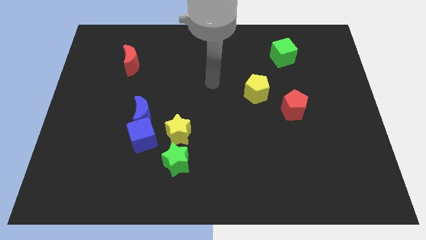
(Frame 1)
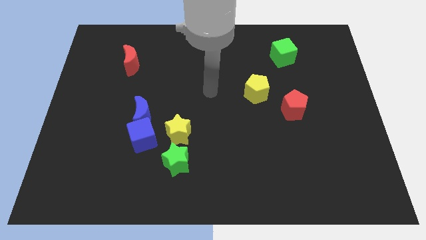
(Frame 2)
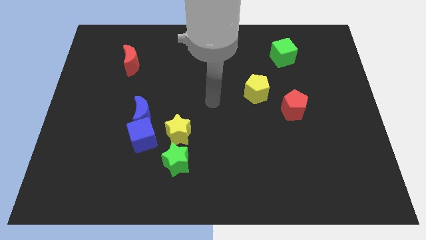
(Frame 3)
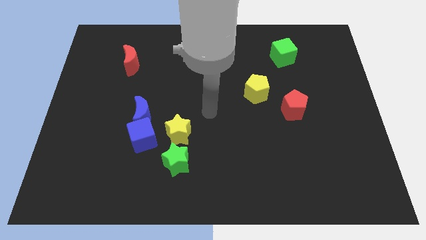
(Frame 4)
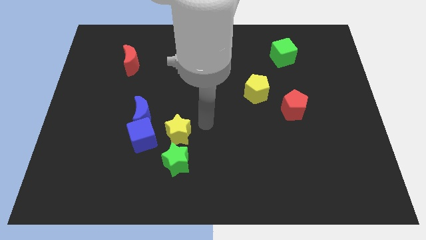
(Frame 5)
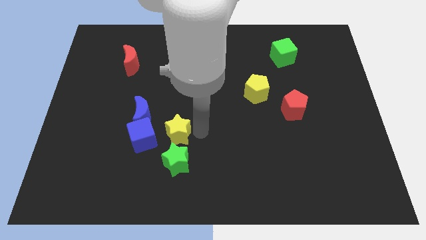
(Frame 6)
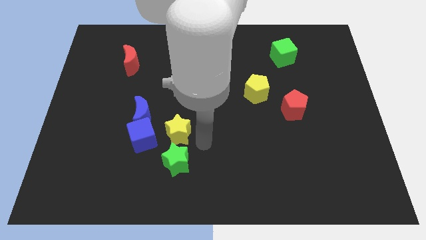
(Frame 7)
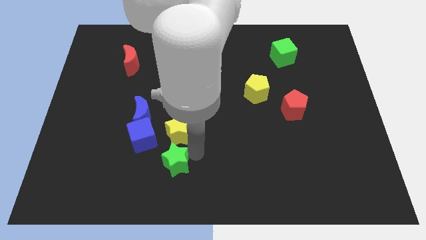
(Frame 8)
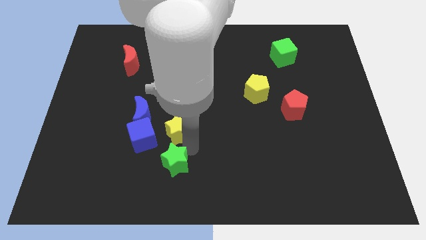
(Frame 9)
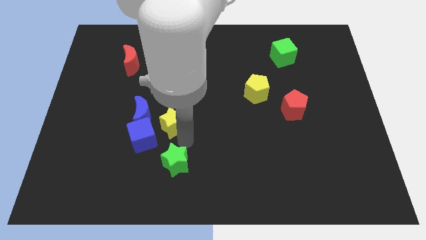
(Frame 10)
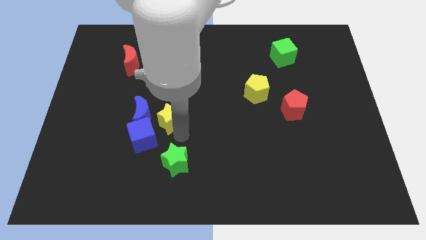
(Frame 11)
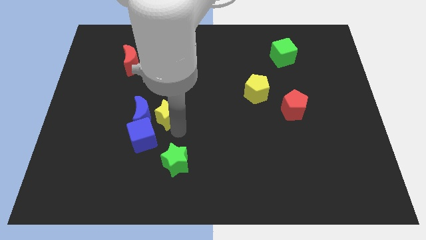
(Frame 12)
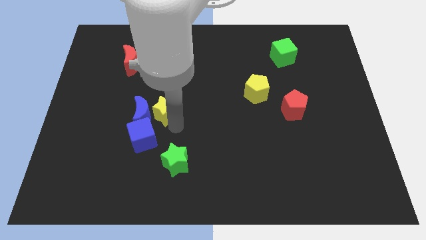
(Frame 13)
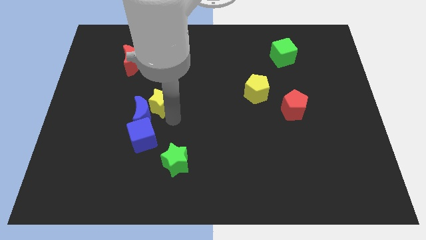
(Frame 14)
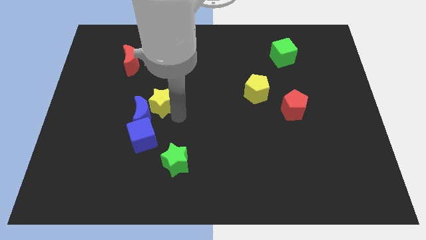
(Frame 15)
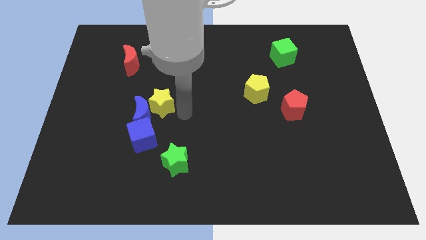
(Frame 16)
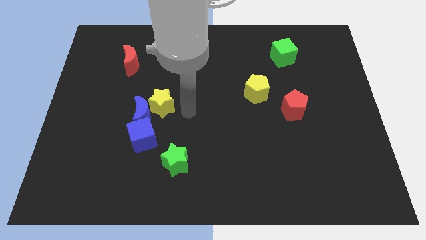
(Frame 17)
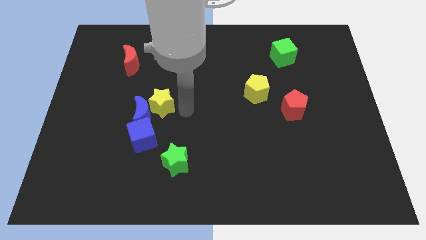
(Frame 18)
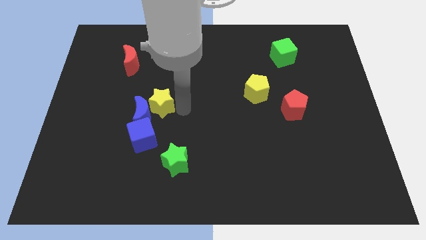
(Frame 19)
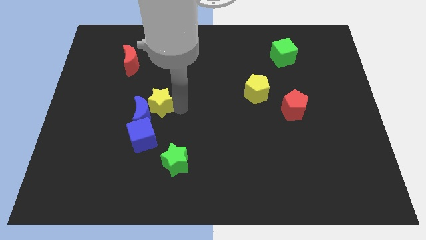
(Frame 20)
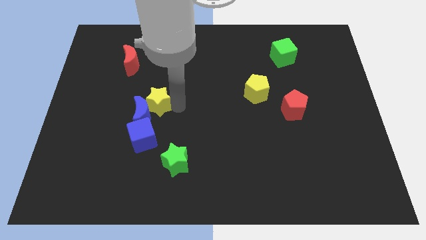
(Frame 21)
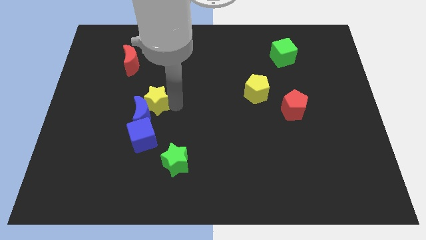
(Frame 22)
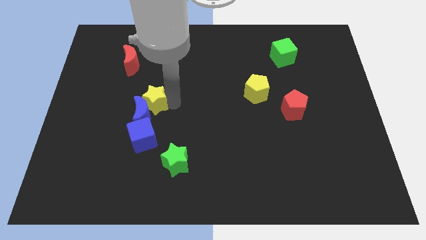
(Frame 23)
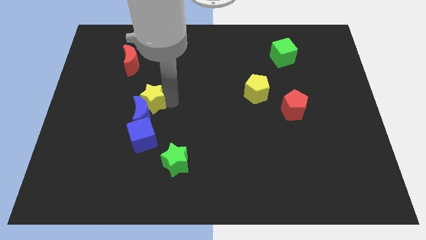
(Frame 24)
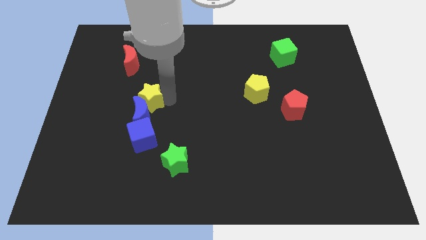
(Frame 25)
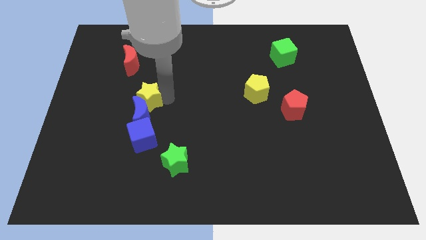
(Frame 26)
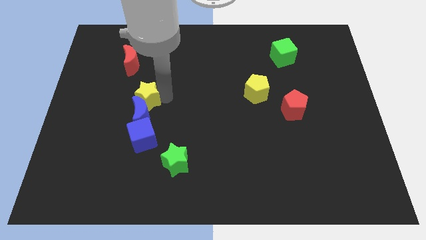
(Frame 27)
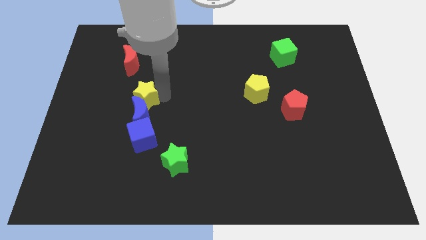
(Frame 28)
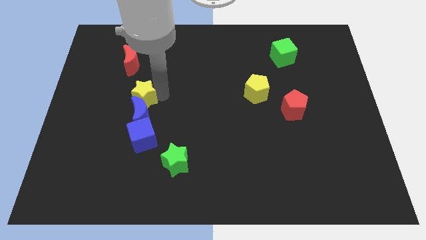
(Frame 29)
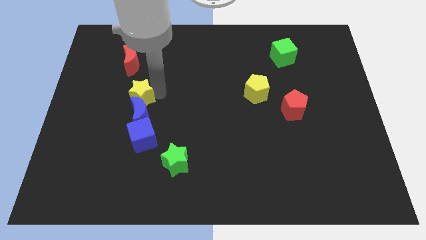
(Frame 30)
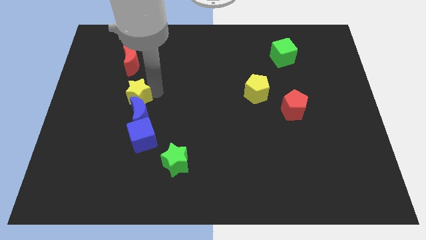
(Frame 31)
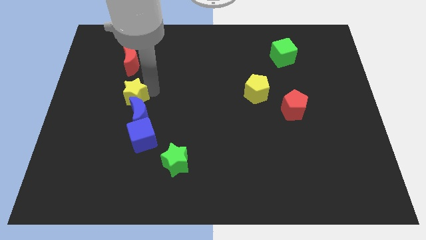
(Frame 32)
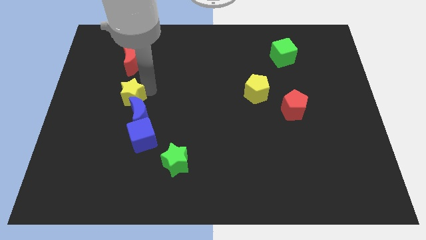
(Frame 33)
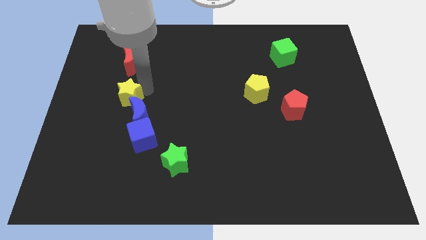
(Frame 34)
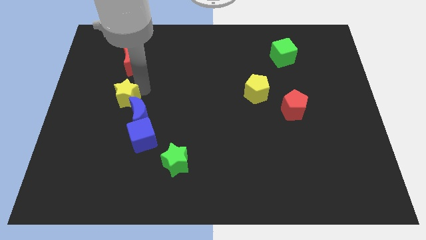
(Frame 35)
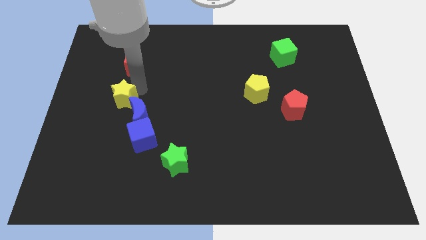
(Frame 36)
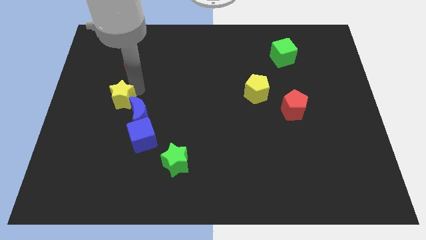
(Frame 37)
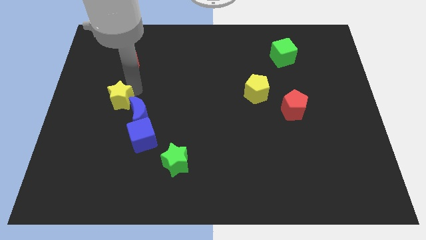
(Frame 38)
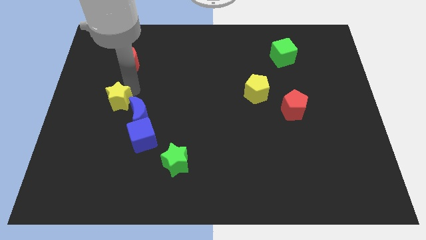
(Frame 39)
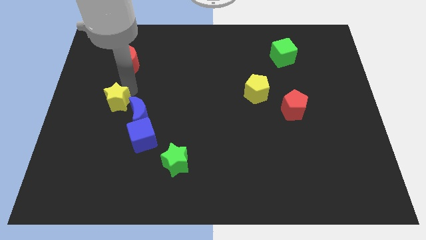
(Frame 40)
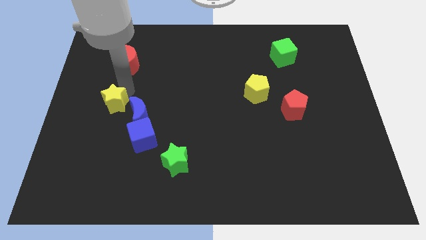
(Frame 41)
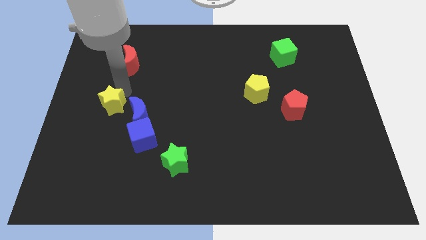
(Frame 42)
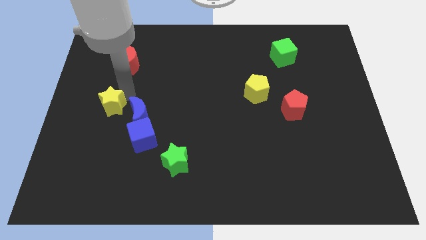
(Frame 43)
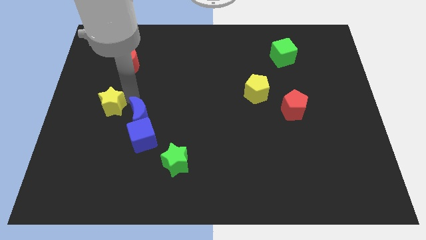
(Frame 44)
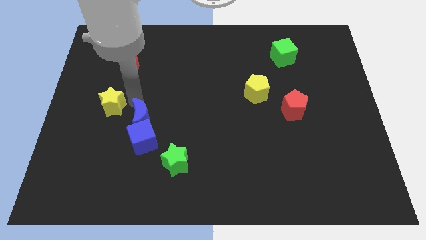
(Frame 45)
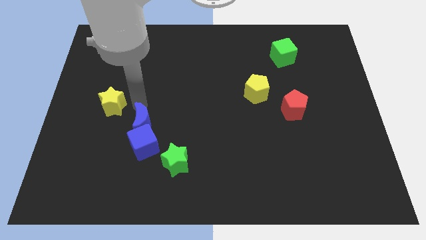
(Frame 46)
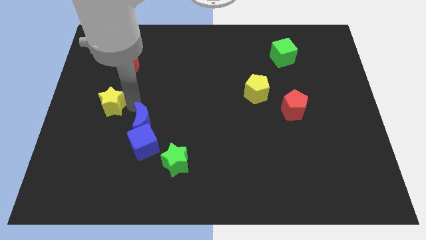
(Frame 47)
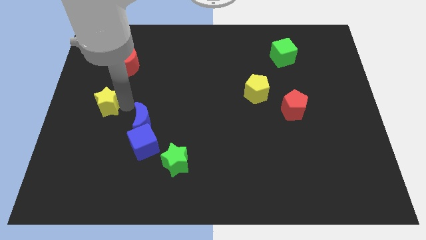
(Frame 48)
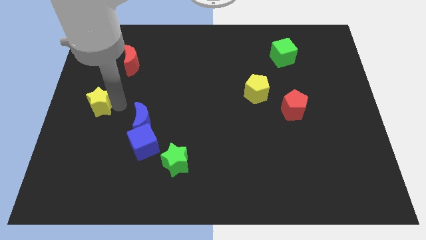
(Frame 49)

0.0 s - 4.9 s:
move the yellow star to the left side

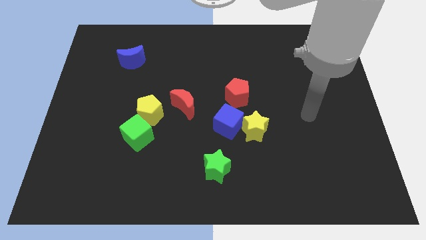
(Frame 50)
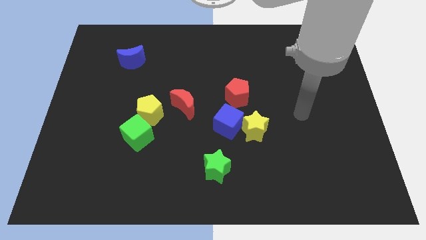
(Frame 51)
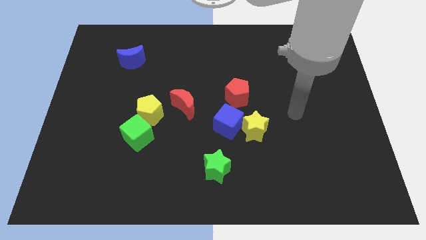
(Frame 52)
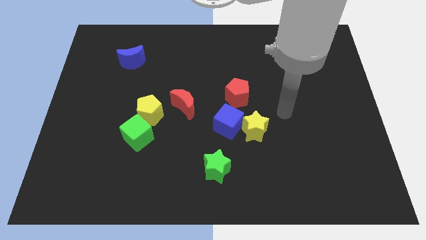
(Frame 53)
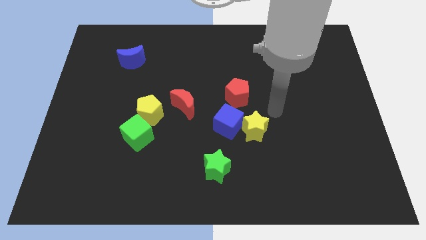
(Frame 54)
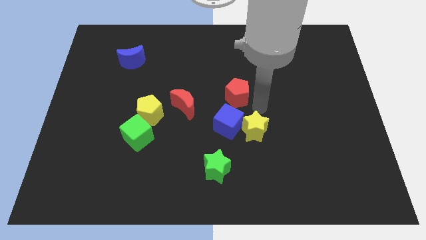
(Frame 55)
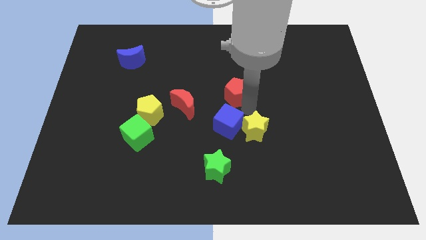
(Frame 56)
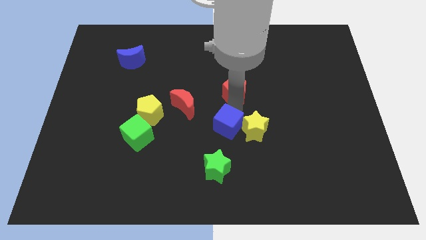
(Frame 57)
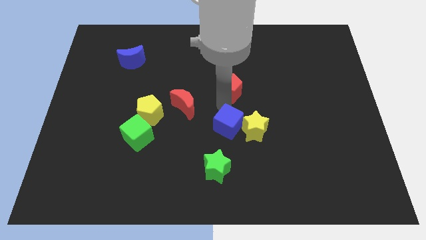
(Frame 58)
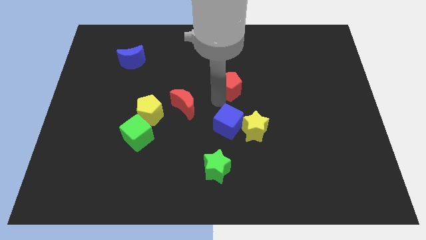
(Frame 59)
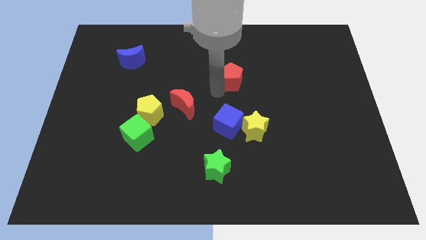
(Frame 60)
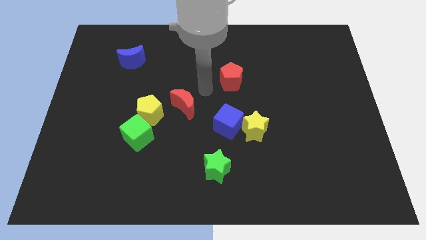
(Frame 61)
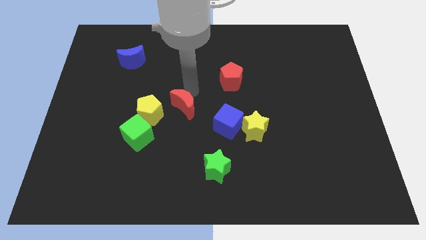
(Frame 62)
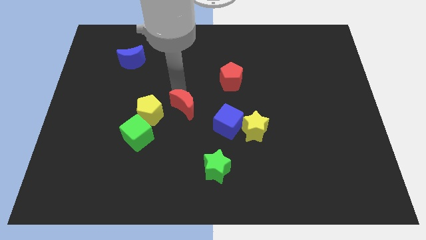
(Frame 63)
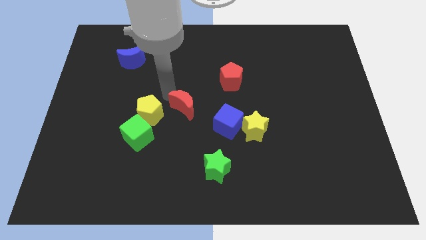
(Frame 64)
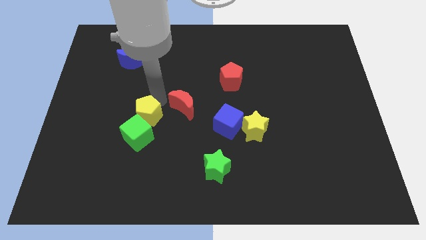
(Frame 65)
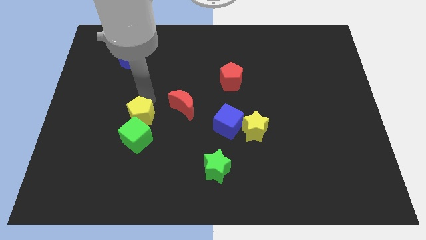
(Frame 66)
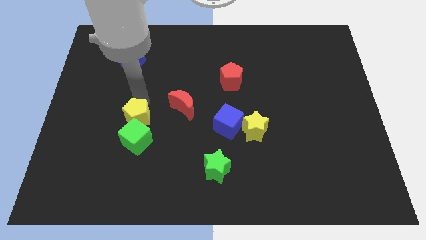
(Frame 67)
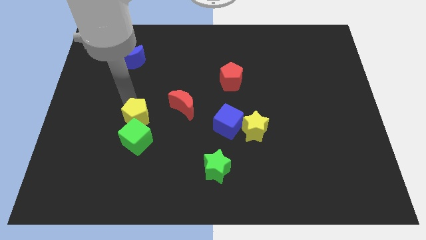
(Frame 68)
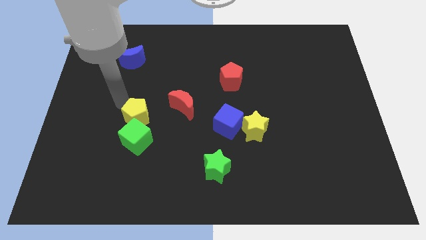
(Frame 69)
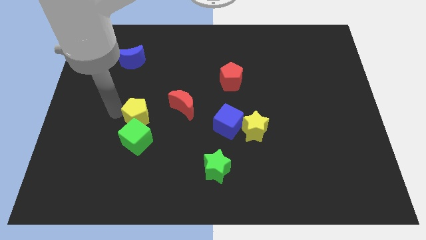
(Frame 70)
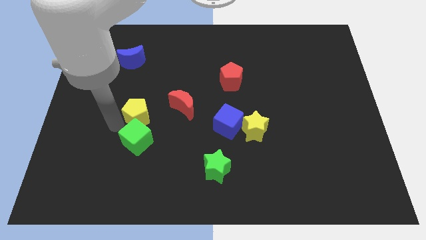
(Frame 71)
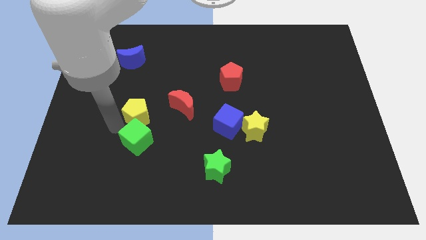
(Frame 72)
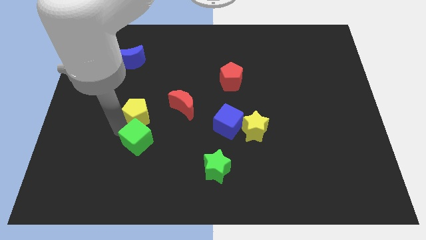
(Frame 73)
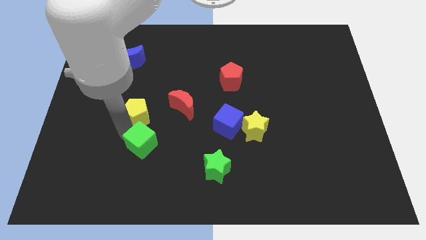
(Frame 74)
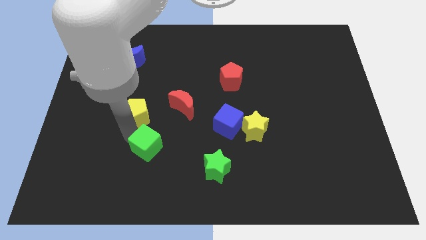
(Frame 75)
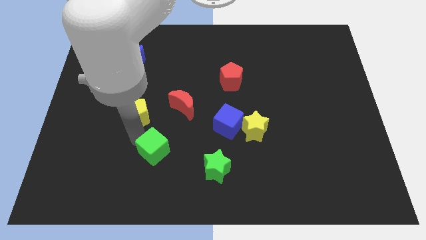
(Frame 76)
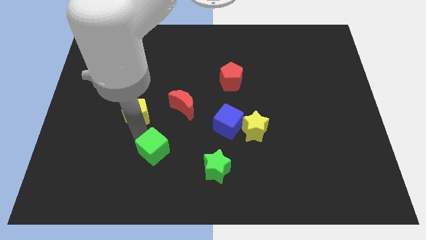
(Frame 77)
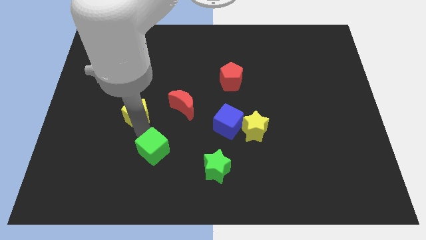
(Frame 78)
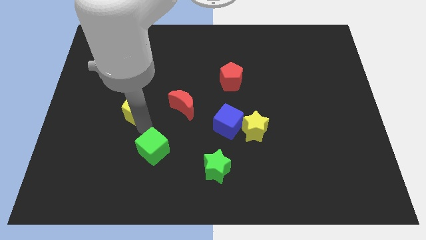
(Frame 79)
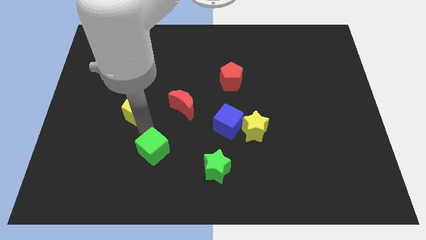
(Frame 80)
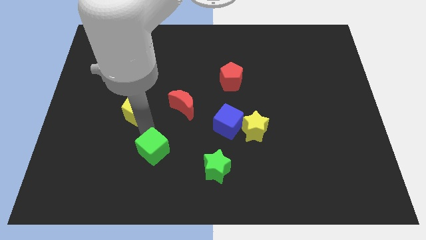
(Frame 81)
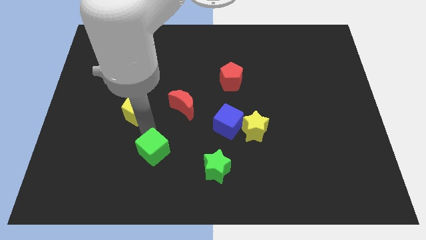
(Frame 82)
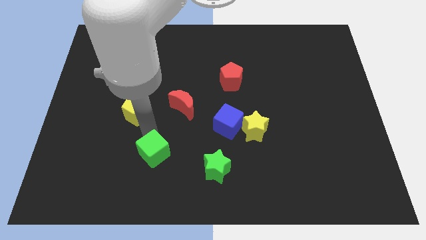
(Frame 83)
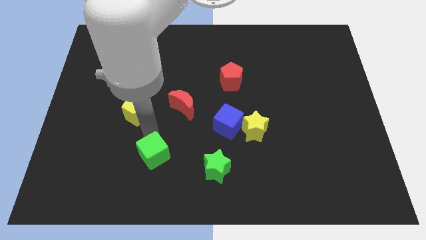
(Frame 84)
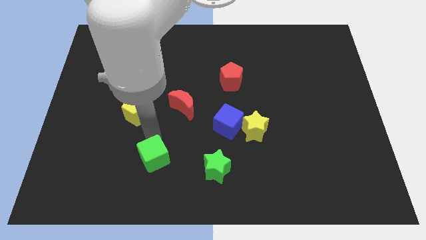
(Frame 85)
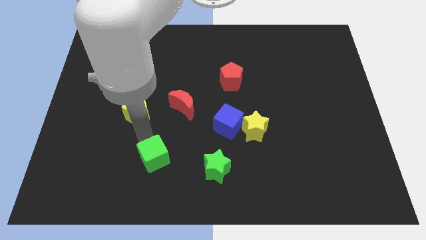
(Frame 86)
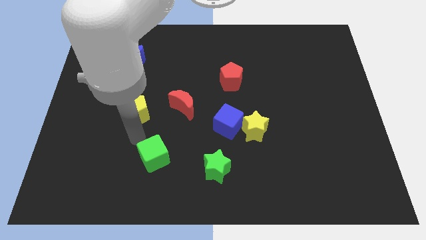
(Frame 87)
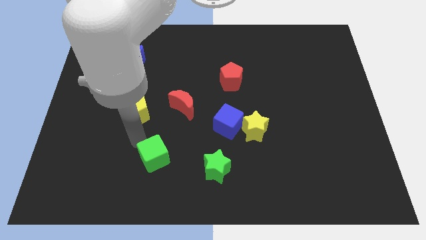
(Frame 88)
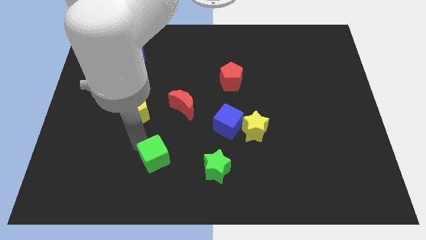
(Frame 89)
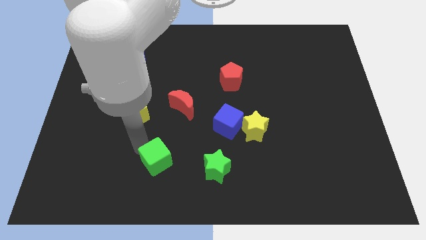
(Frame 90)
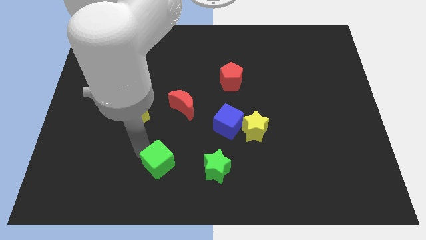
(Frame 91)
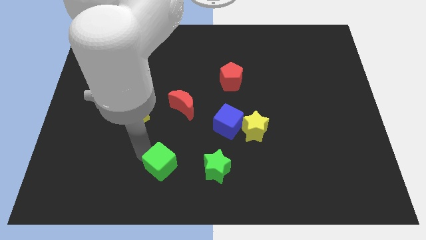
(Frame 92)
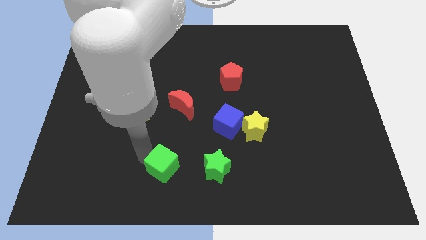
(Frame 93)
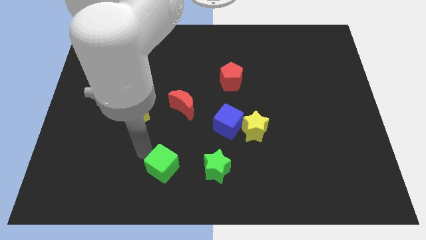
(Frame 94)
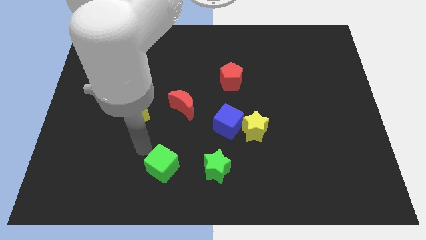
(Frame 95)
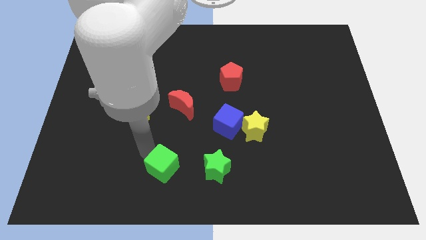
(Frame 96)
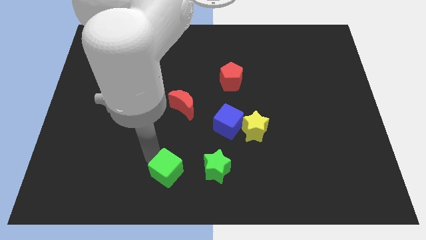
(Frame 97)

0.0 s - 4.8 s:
slide the green cube to the bottom
